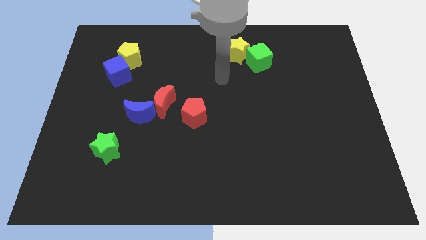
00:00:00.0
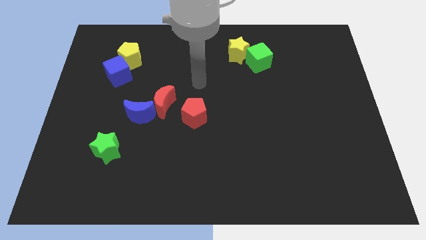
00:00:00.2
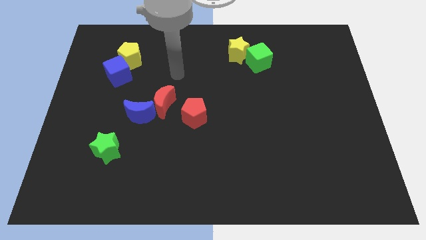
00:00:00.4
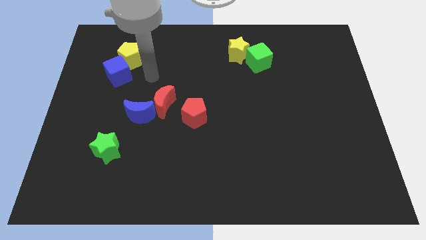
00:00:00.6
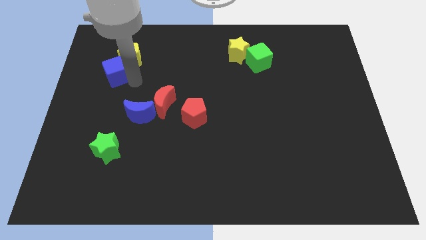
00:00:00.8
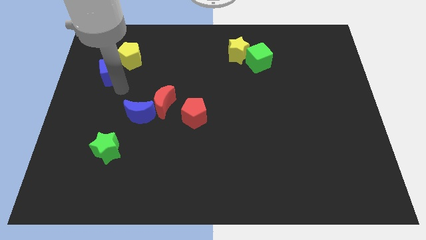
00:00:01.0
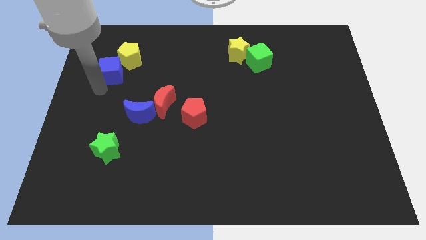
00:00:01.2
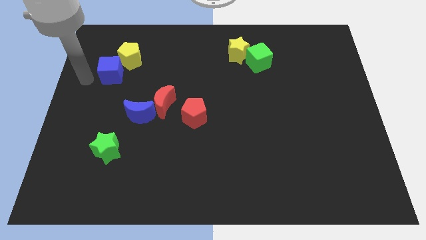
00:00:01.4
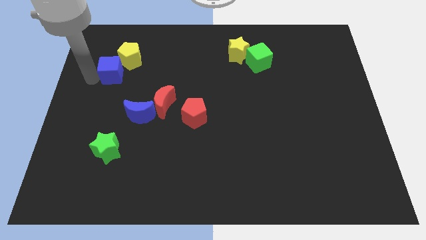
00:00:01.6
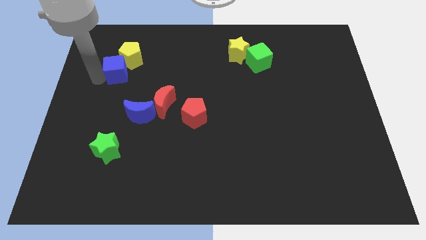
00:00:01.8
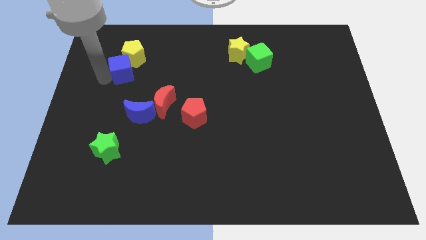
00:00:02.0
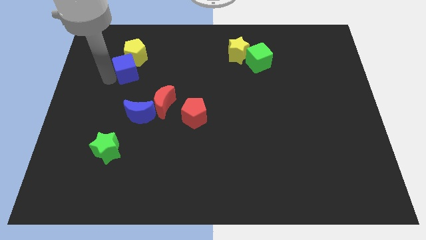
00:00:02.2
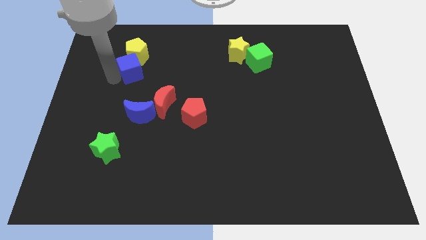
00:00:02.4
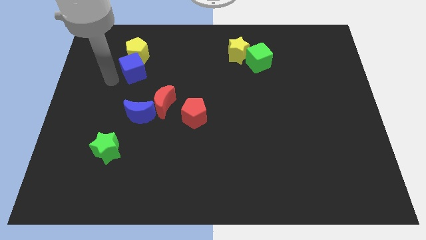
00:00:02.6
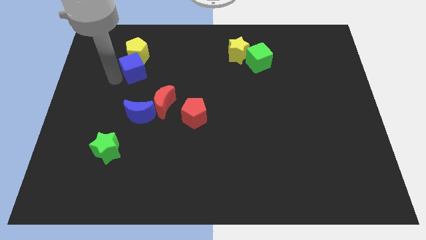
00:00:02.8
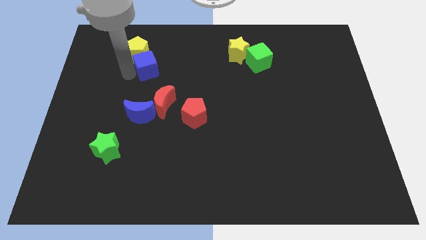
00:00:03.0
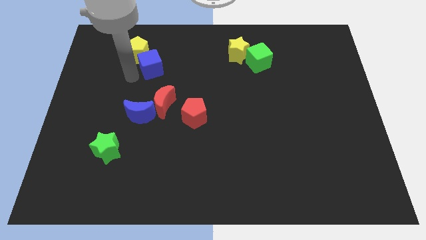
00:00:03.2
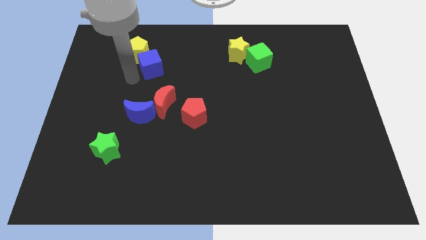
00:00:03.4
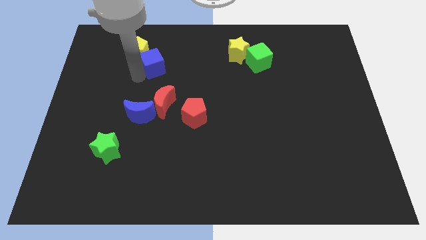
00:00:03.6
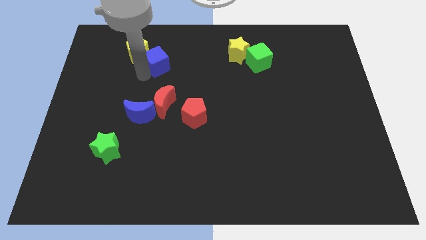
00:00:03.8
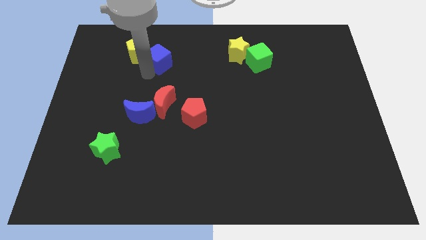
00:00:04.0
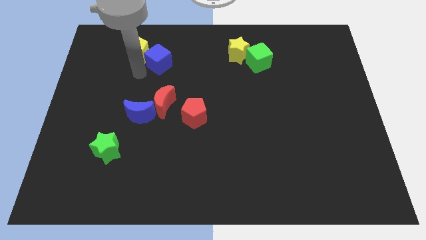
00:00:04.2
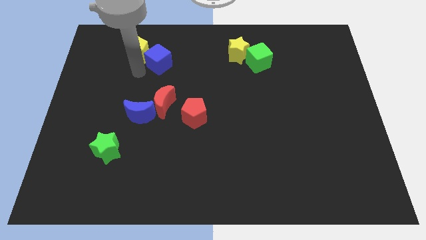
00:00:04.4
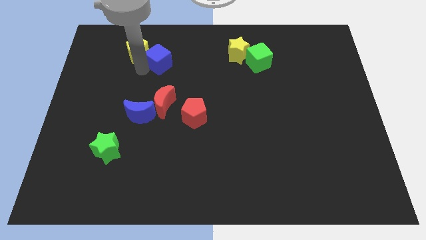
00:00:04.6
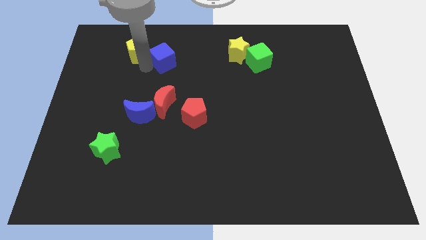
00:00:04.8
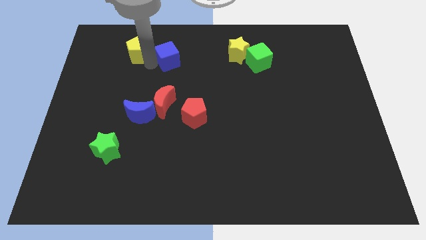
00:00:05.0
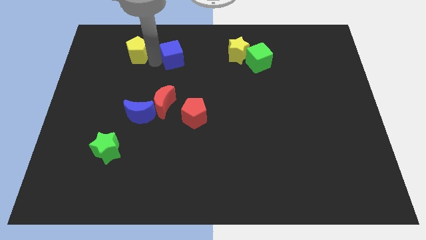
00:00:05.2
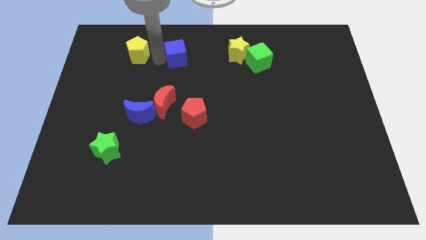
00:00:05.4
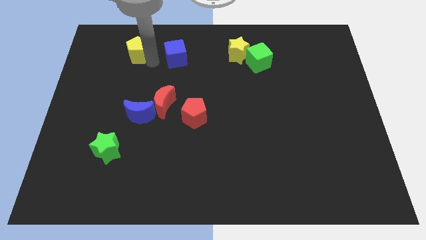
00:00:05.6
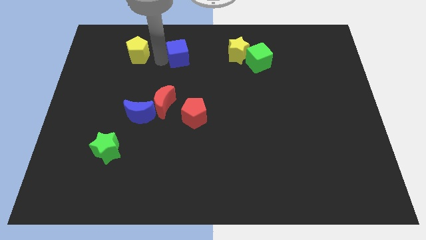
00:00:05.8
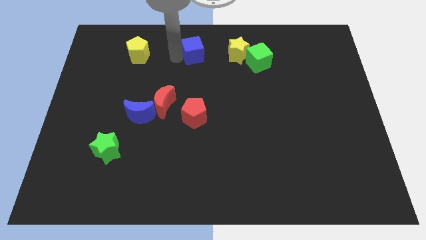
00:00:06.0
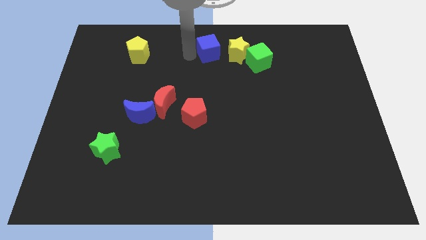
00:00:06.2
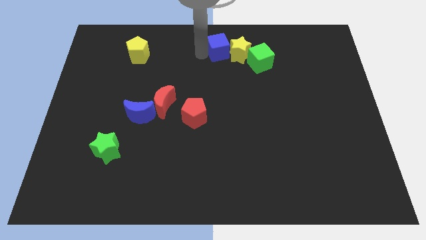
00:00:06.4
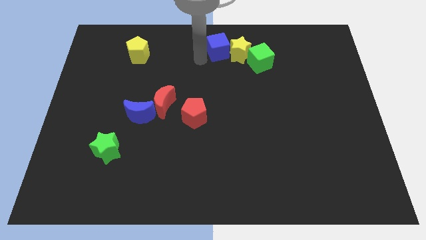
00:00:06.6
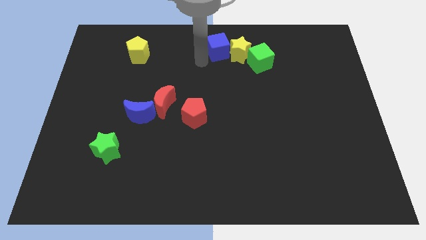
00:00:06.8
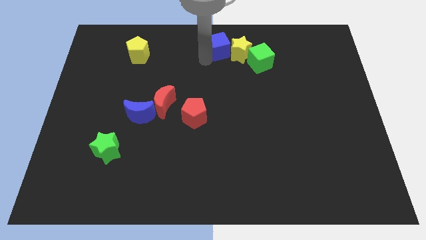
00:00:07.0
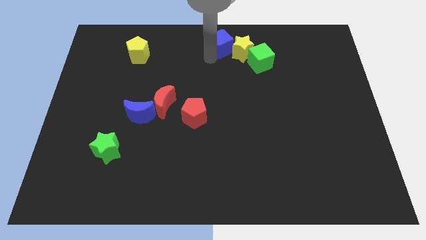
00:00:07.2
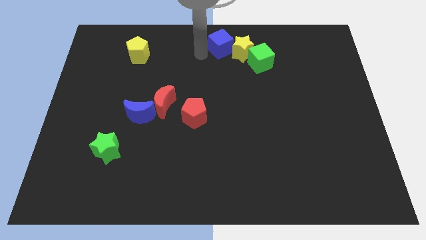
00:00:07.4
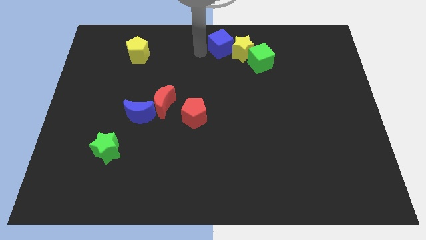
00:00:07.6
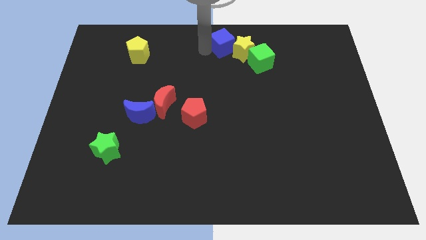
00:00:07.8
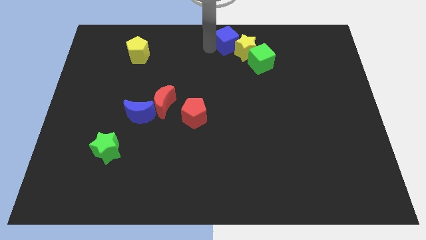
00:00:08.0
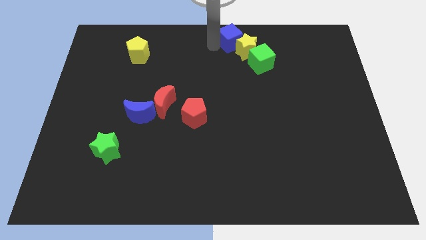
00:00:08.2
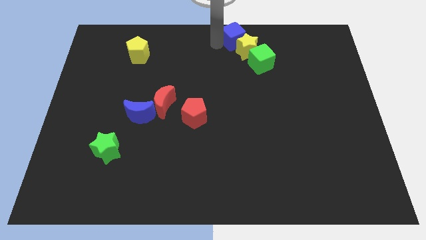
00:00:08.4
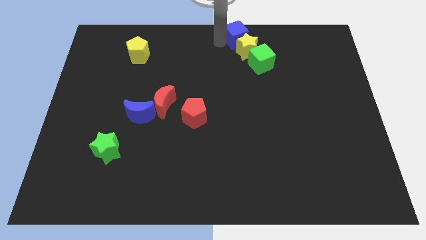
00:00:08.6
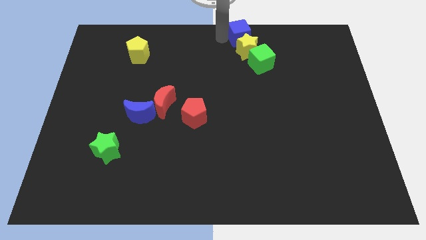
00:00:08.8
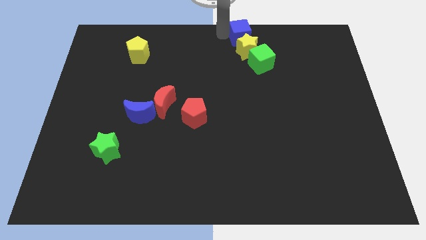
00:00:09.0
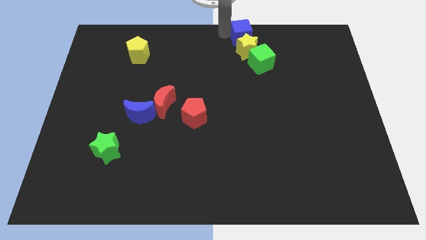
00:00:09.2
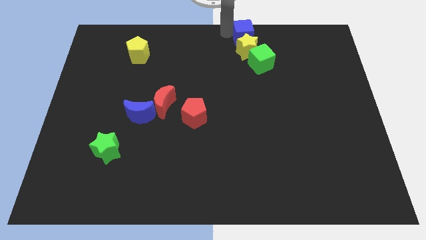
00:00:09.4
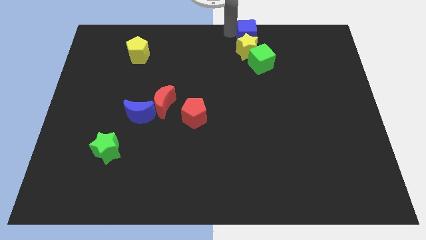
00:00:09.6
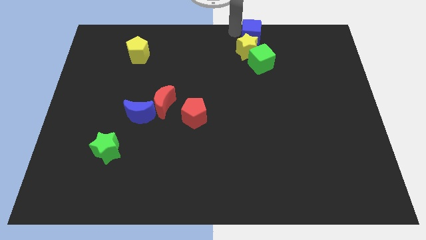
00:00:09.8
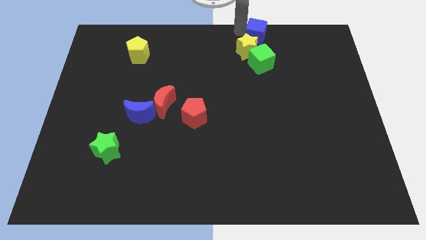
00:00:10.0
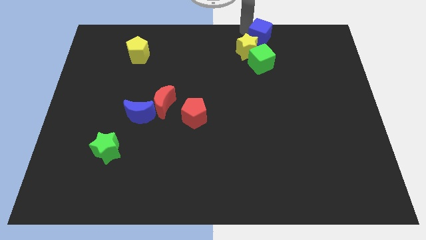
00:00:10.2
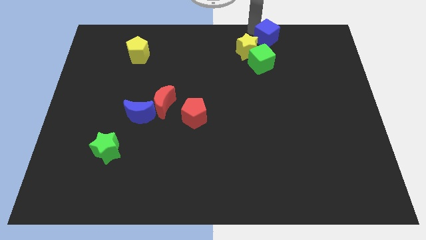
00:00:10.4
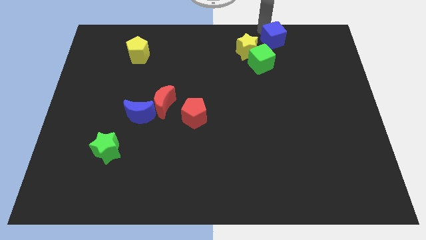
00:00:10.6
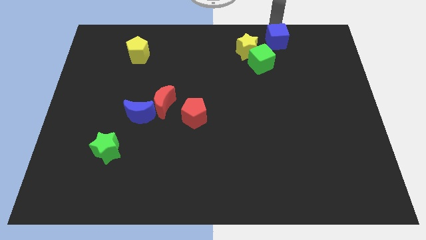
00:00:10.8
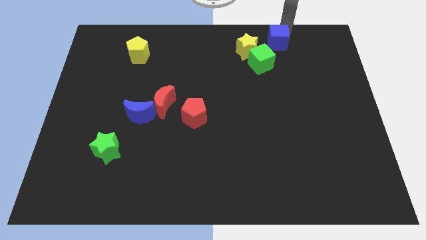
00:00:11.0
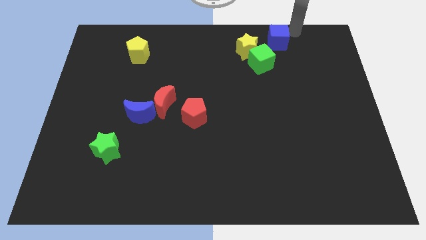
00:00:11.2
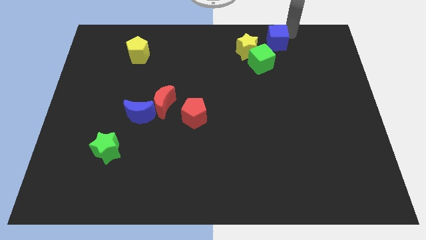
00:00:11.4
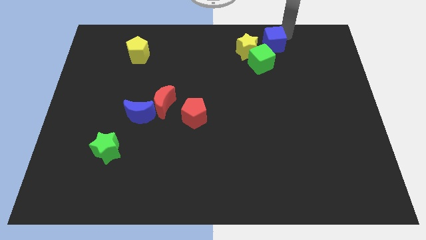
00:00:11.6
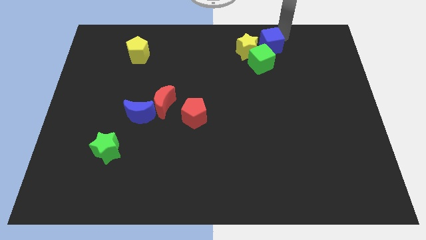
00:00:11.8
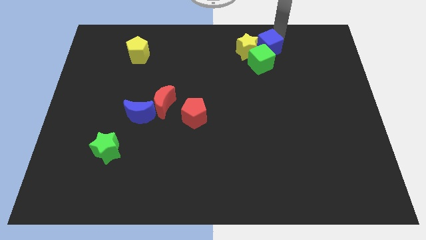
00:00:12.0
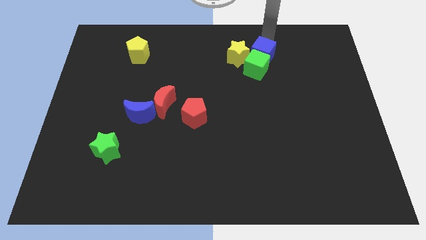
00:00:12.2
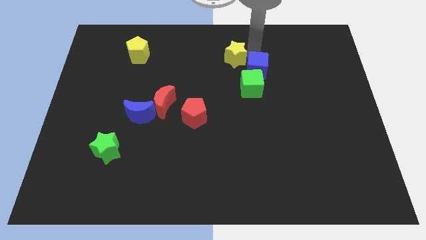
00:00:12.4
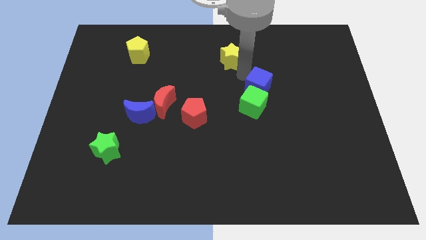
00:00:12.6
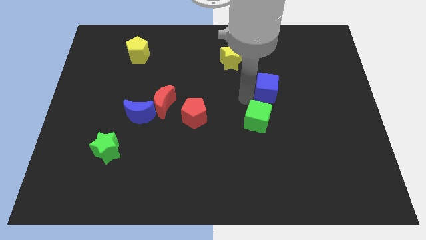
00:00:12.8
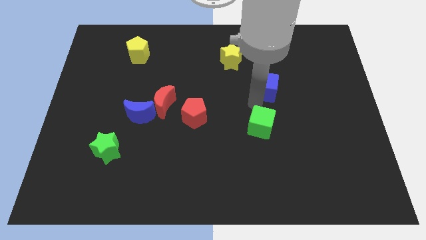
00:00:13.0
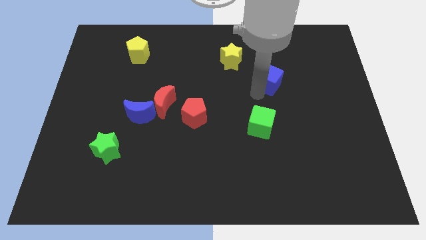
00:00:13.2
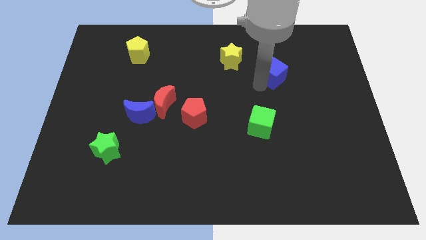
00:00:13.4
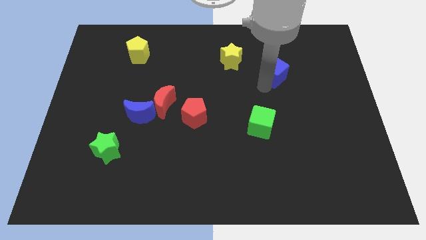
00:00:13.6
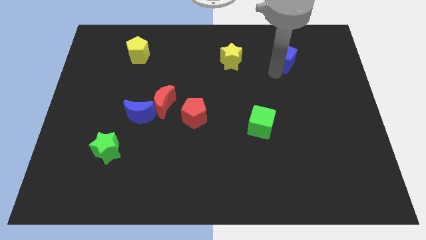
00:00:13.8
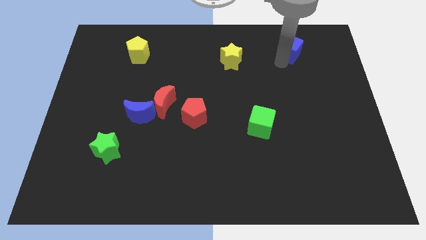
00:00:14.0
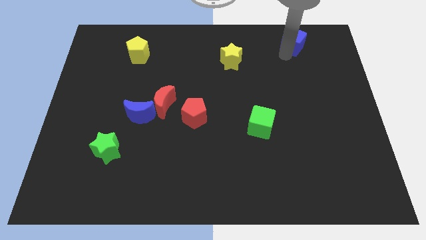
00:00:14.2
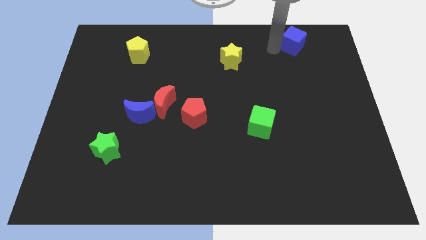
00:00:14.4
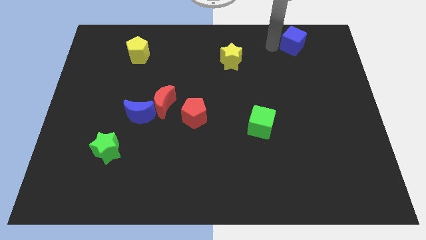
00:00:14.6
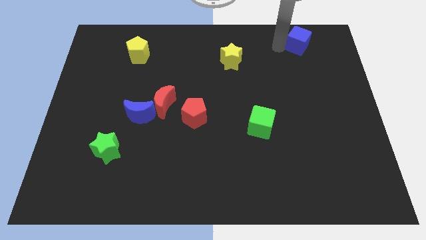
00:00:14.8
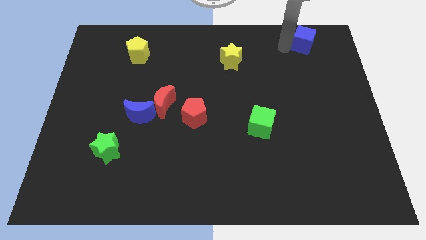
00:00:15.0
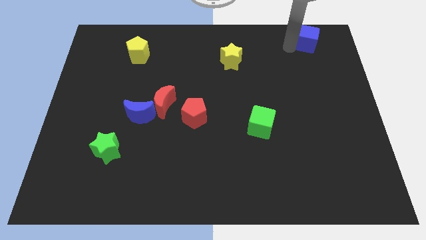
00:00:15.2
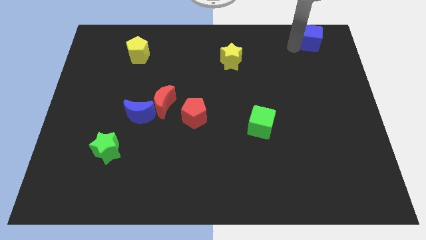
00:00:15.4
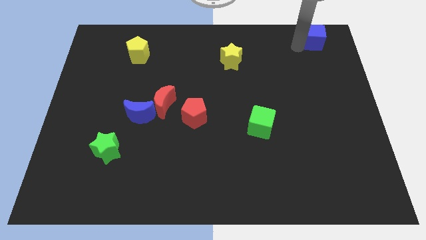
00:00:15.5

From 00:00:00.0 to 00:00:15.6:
slide the blue cube to the top right
